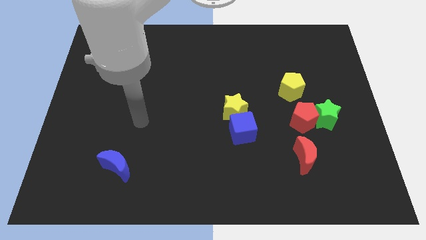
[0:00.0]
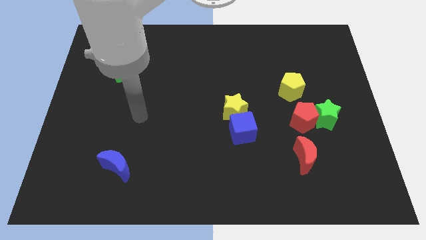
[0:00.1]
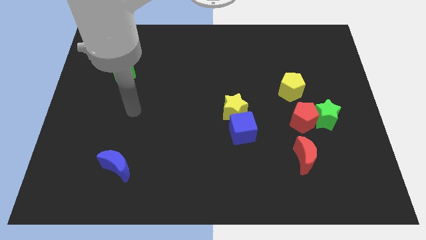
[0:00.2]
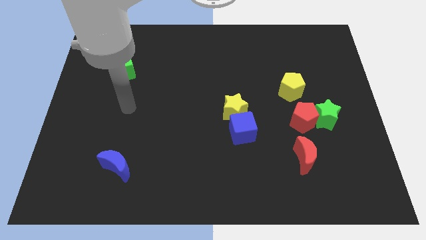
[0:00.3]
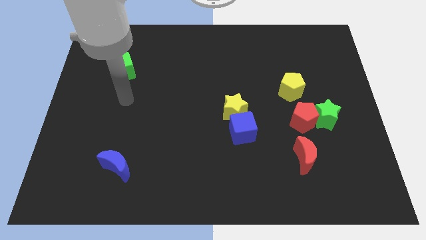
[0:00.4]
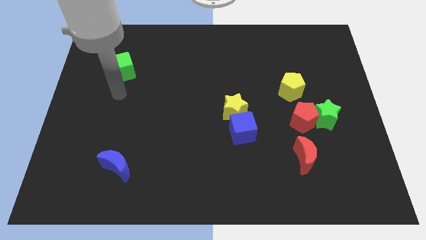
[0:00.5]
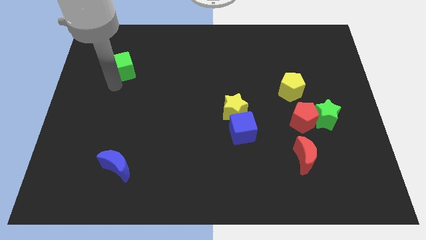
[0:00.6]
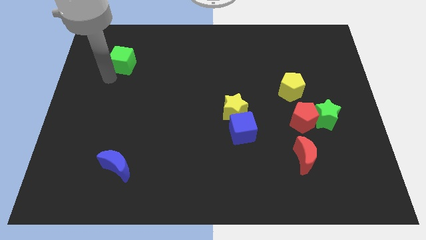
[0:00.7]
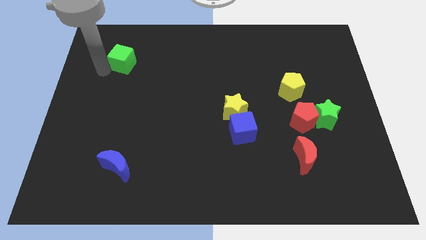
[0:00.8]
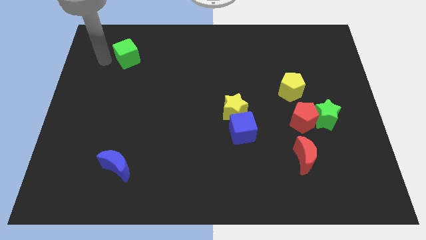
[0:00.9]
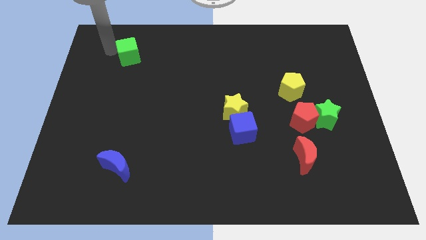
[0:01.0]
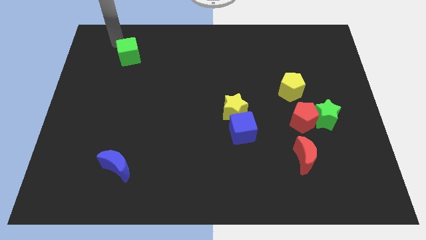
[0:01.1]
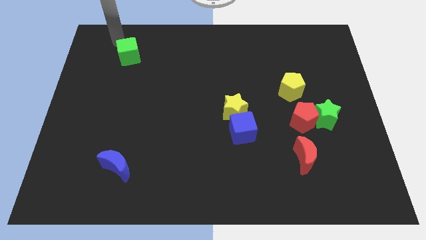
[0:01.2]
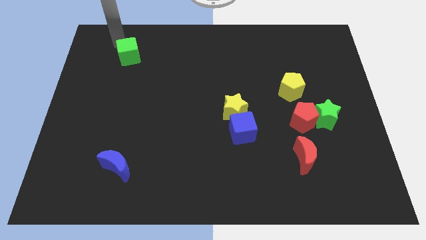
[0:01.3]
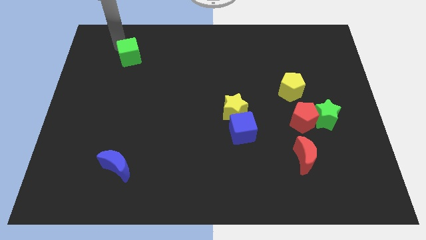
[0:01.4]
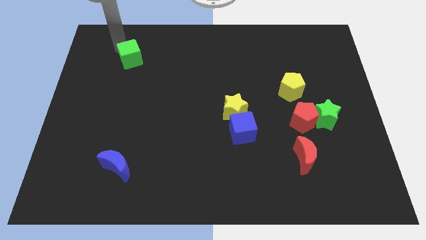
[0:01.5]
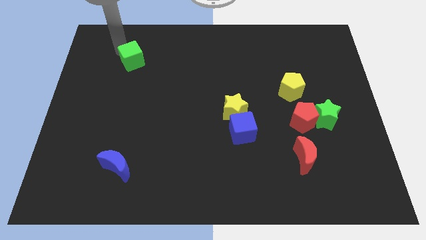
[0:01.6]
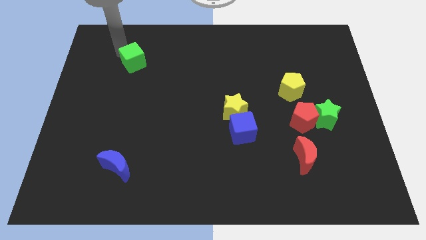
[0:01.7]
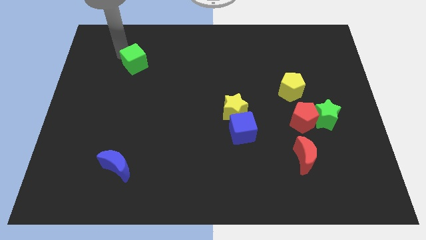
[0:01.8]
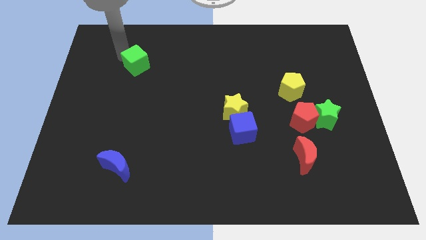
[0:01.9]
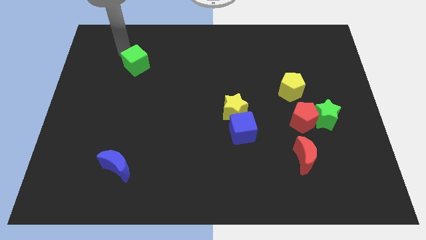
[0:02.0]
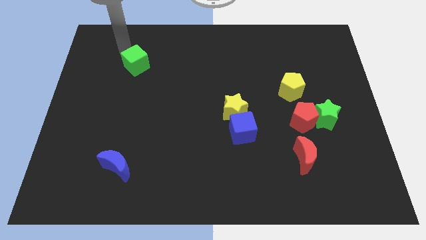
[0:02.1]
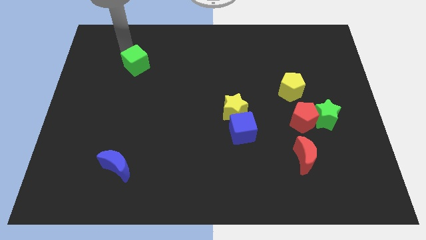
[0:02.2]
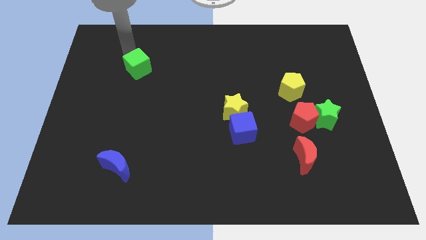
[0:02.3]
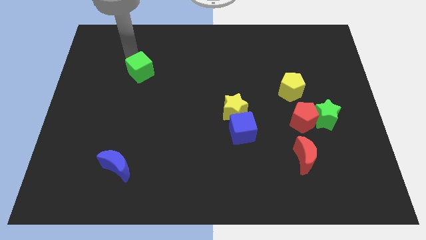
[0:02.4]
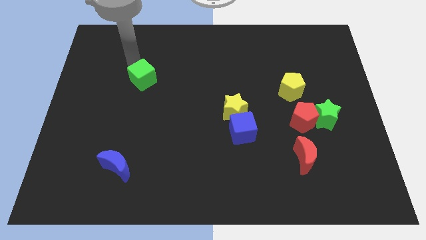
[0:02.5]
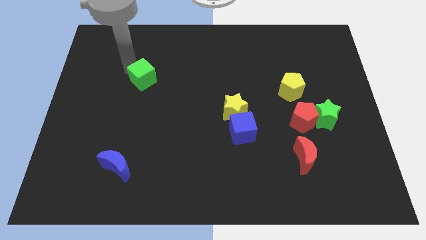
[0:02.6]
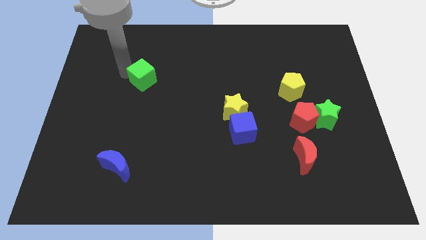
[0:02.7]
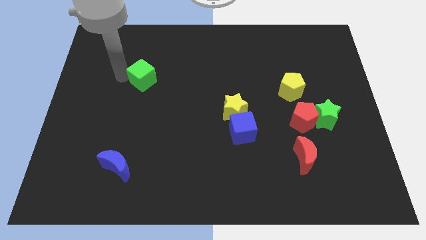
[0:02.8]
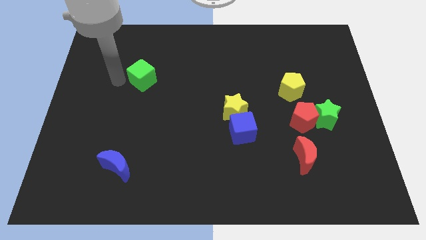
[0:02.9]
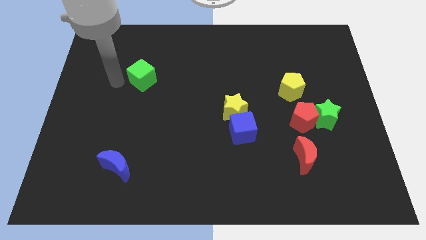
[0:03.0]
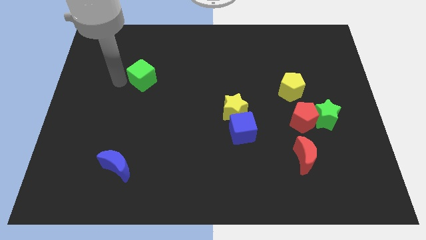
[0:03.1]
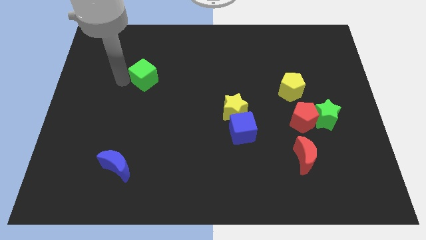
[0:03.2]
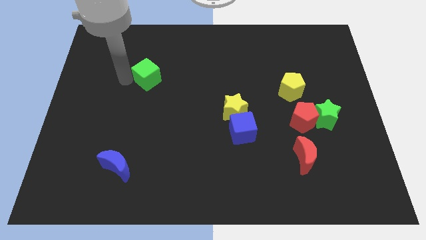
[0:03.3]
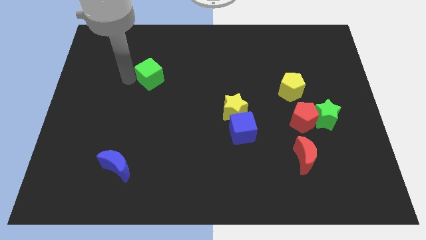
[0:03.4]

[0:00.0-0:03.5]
slightly move the green cube to the right

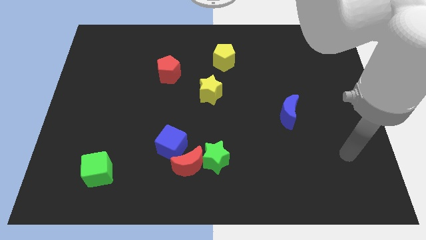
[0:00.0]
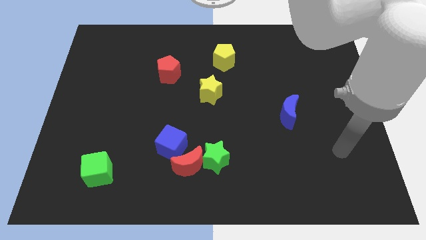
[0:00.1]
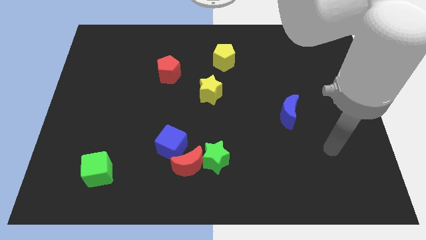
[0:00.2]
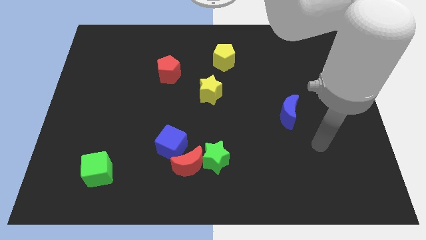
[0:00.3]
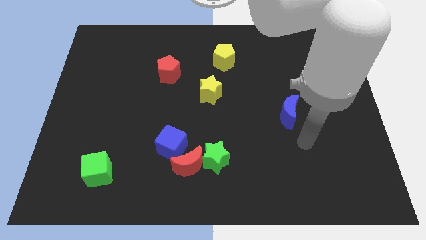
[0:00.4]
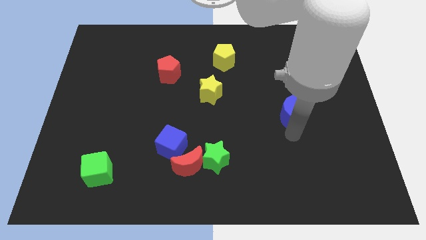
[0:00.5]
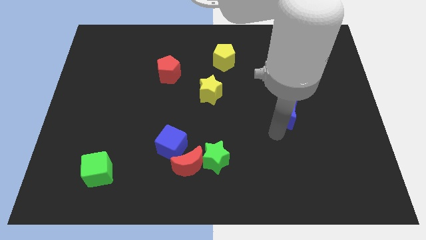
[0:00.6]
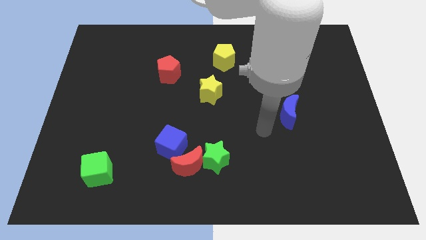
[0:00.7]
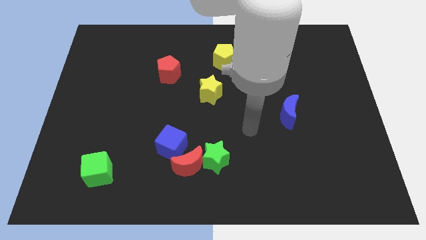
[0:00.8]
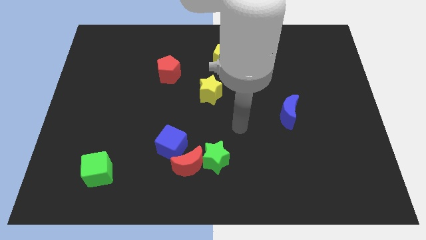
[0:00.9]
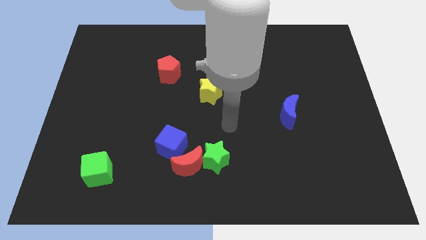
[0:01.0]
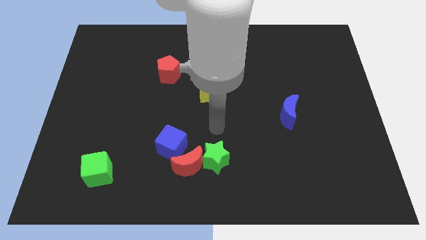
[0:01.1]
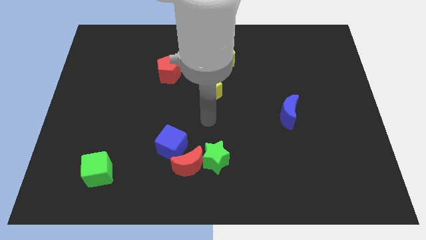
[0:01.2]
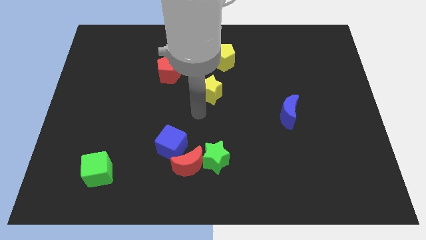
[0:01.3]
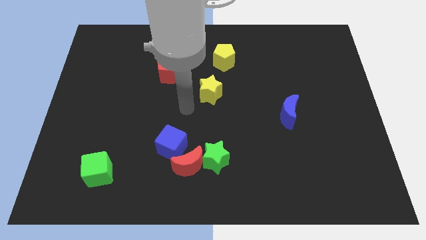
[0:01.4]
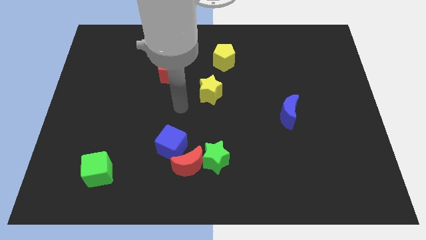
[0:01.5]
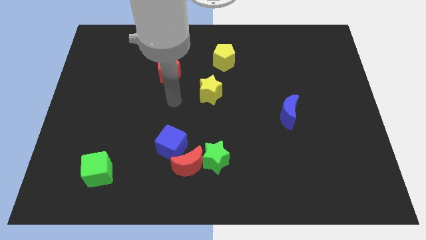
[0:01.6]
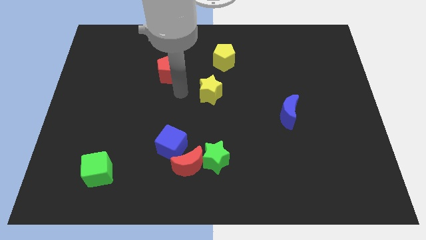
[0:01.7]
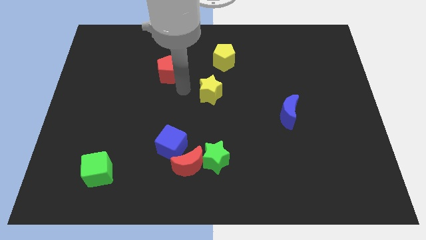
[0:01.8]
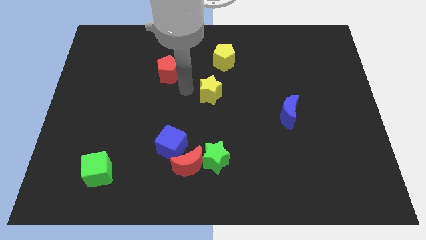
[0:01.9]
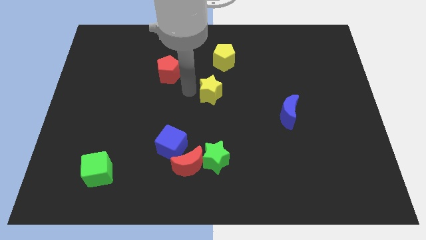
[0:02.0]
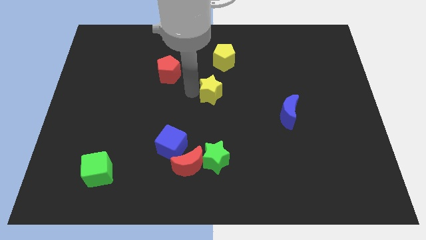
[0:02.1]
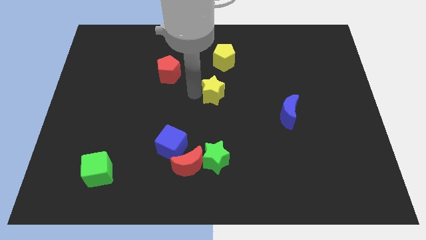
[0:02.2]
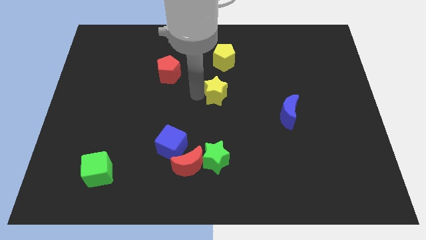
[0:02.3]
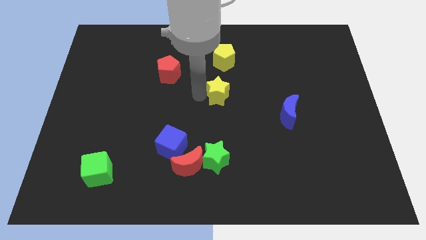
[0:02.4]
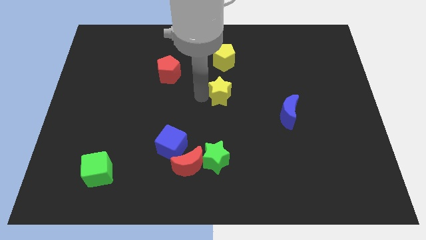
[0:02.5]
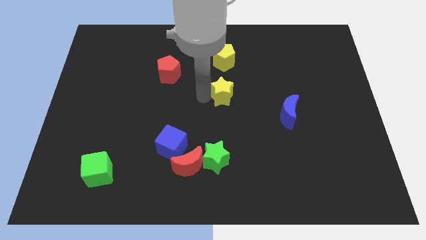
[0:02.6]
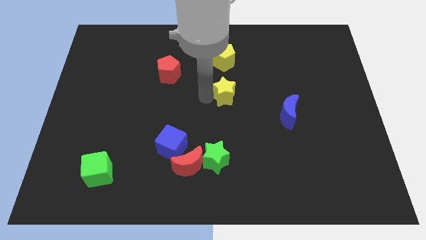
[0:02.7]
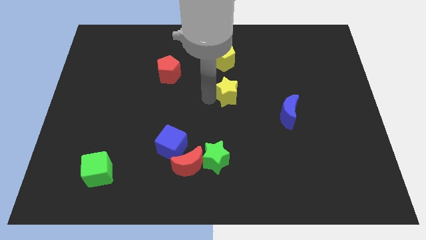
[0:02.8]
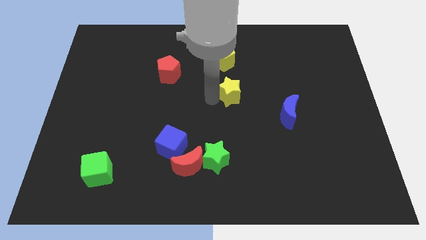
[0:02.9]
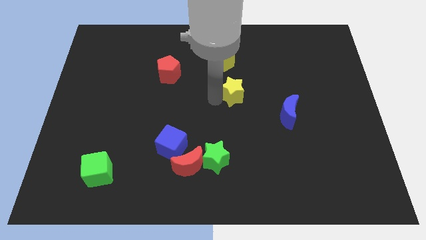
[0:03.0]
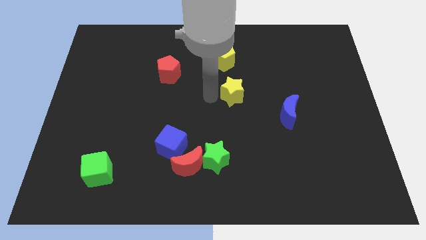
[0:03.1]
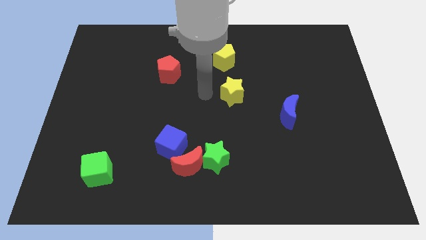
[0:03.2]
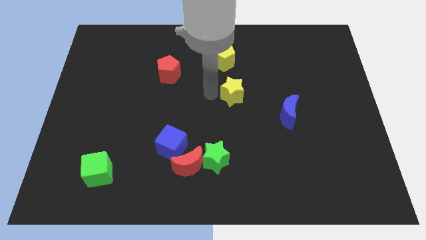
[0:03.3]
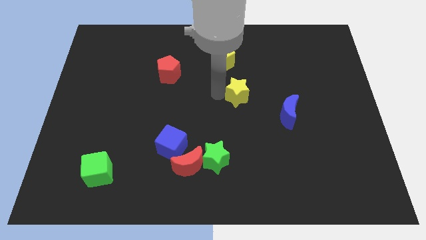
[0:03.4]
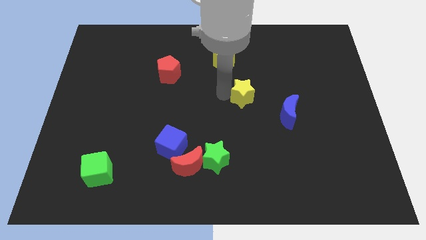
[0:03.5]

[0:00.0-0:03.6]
slide the yellow star to the right a little

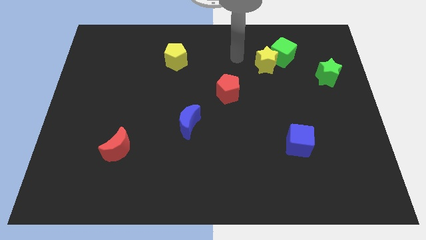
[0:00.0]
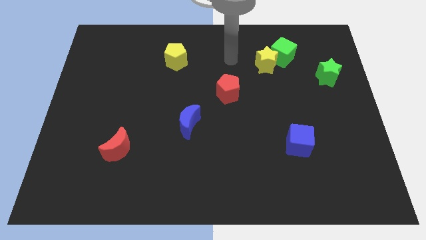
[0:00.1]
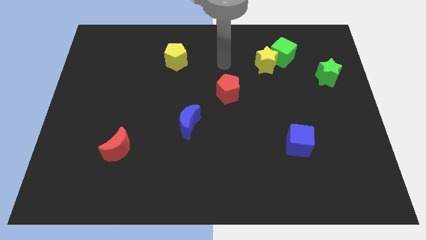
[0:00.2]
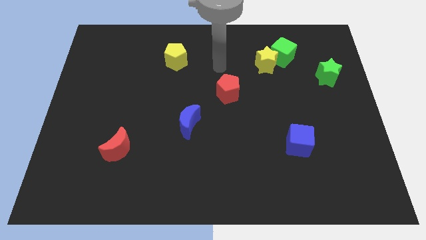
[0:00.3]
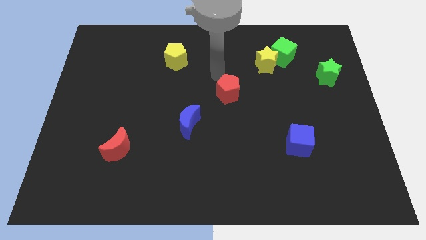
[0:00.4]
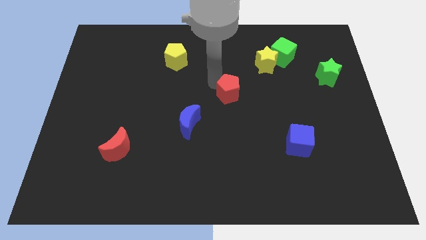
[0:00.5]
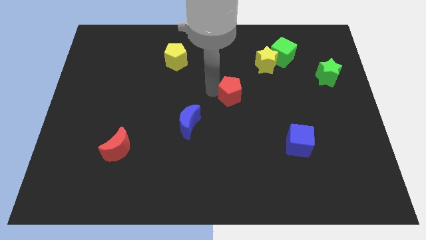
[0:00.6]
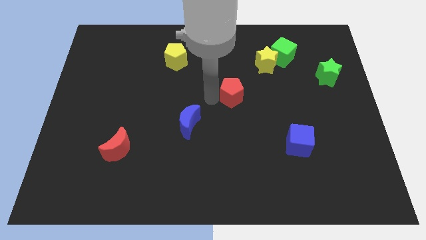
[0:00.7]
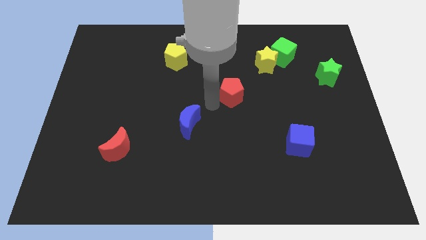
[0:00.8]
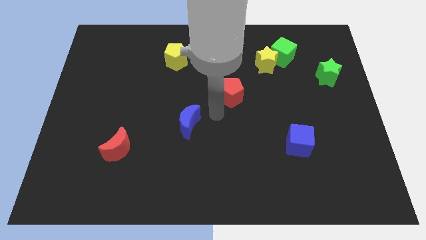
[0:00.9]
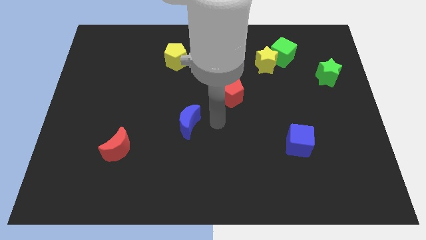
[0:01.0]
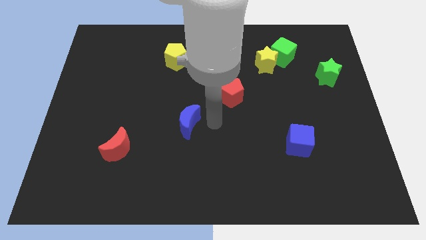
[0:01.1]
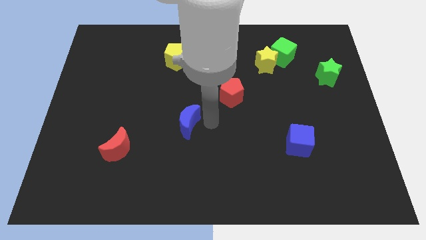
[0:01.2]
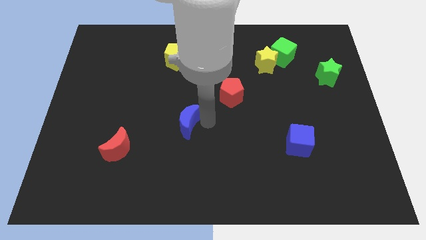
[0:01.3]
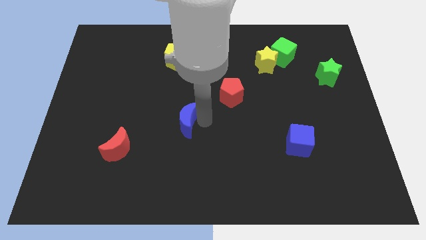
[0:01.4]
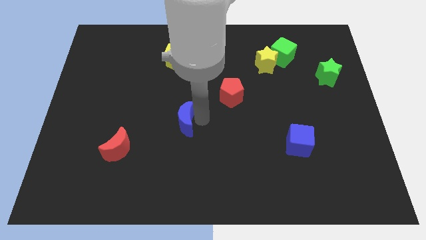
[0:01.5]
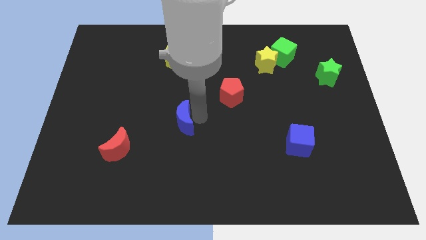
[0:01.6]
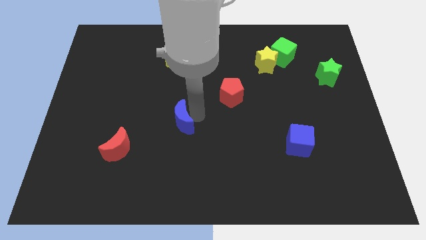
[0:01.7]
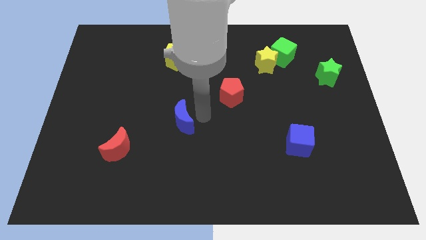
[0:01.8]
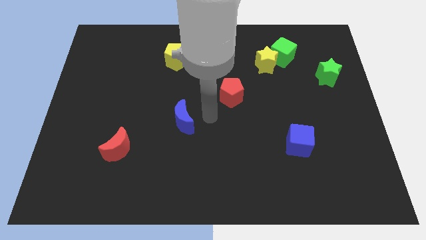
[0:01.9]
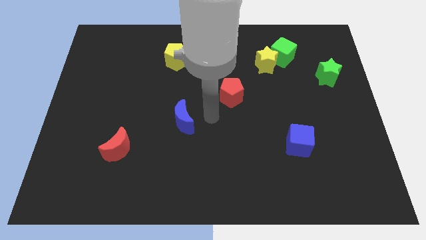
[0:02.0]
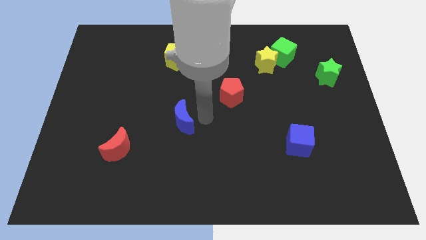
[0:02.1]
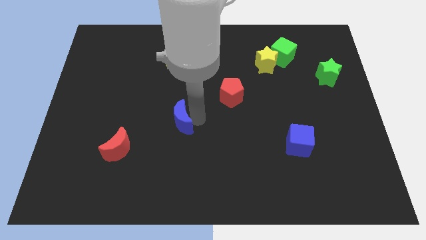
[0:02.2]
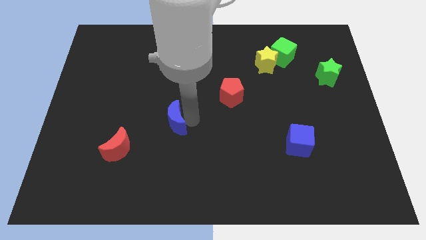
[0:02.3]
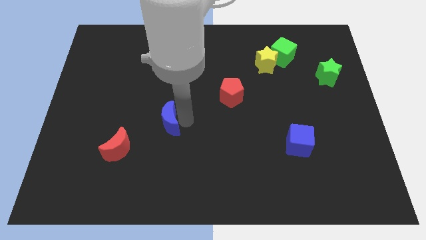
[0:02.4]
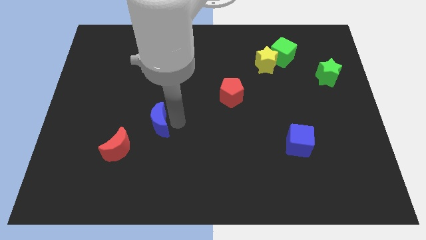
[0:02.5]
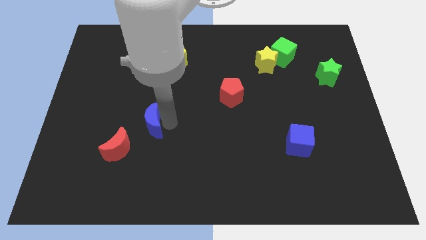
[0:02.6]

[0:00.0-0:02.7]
move the blue moon to the left somewhat
